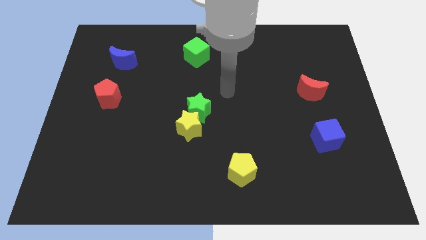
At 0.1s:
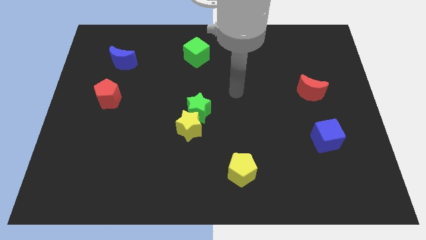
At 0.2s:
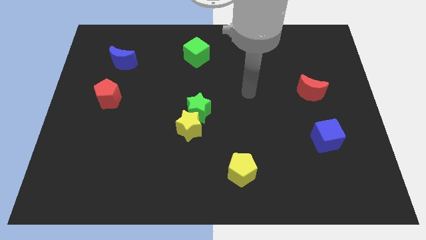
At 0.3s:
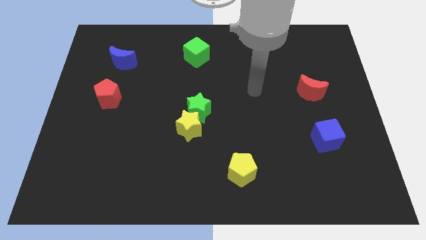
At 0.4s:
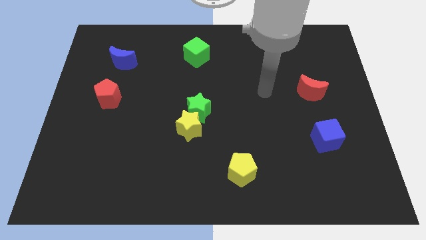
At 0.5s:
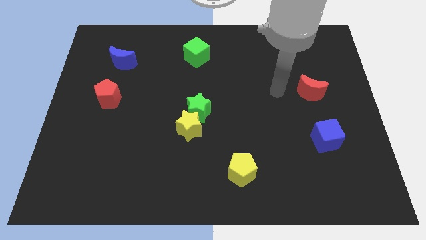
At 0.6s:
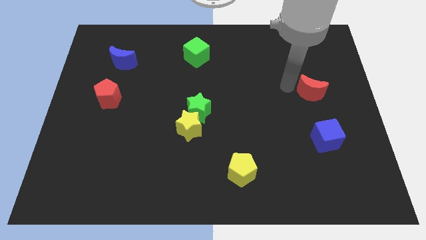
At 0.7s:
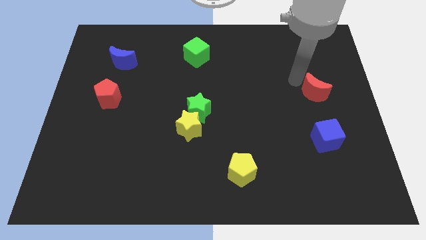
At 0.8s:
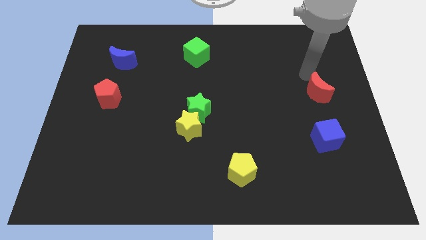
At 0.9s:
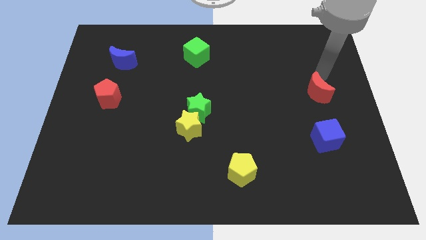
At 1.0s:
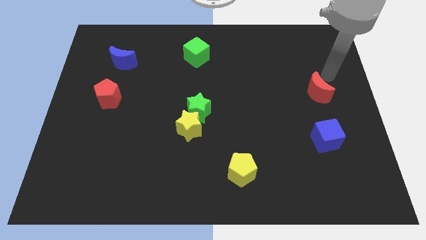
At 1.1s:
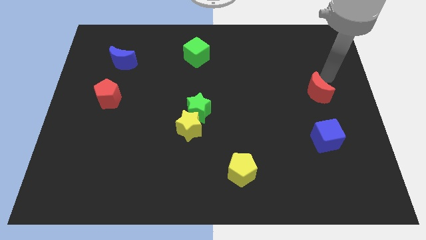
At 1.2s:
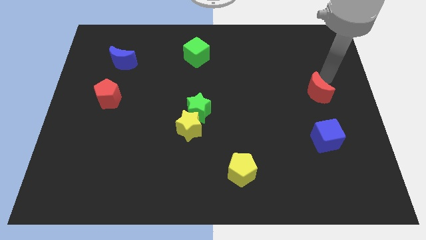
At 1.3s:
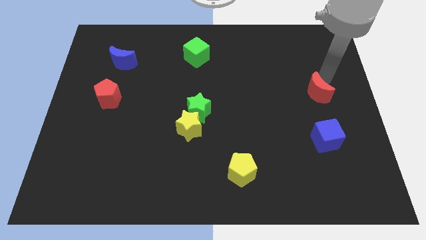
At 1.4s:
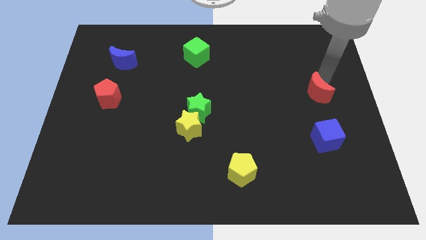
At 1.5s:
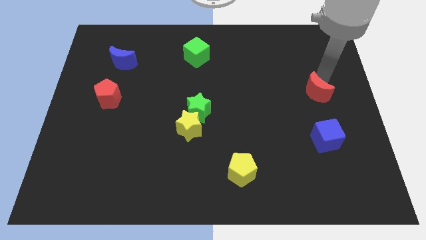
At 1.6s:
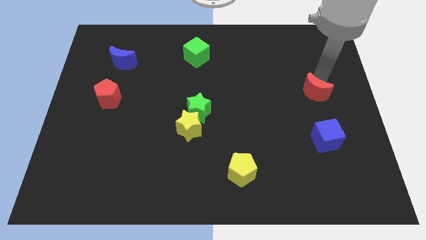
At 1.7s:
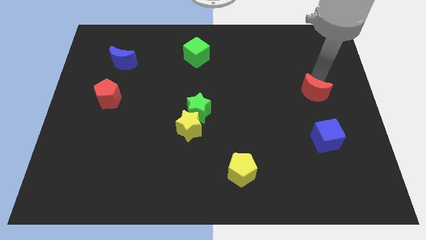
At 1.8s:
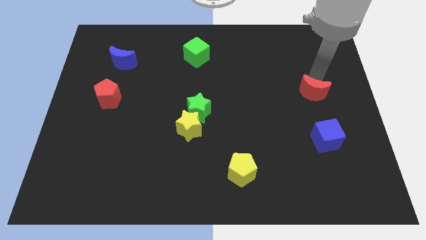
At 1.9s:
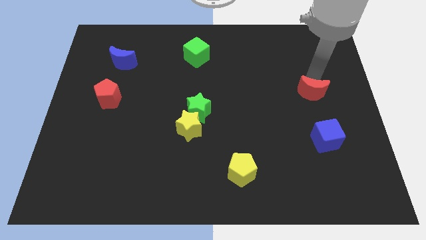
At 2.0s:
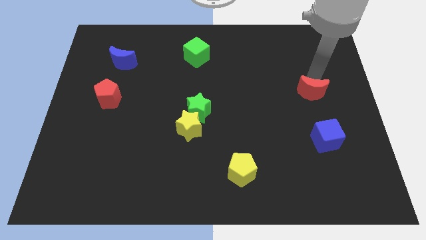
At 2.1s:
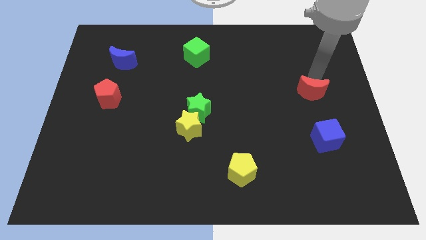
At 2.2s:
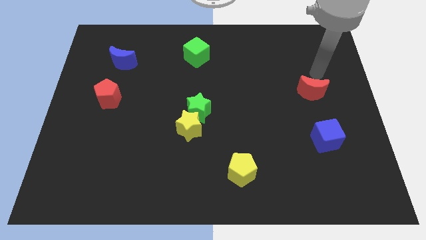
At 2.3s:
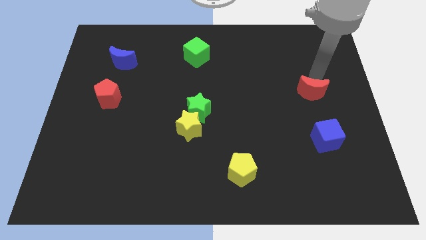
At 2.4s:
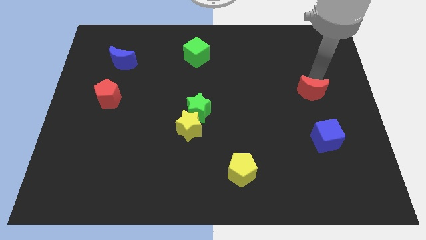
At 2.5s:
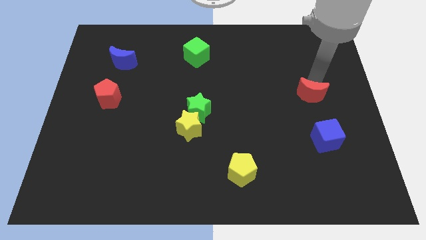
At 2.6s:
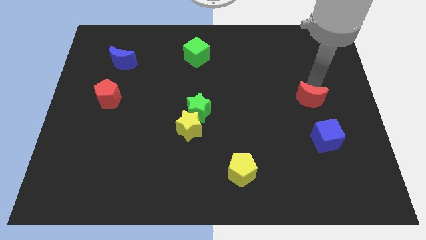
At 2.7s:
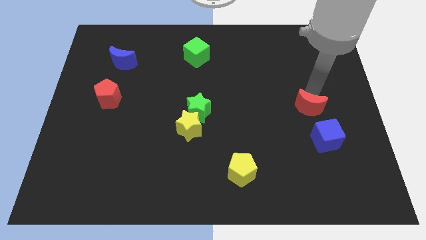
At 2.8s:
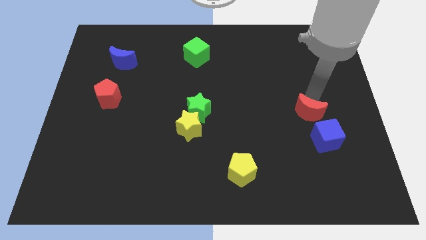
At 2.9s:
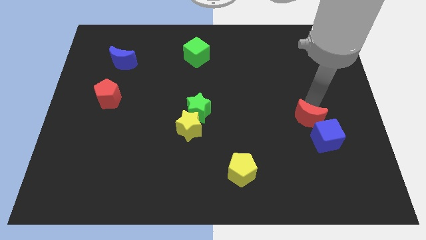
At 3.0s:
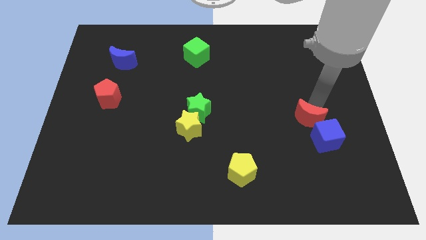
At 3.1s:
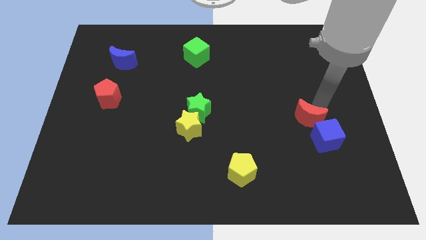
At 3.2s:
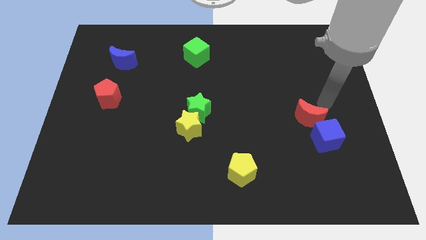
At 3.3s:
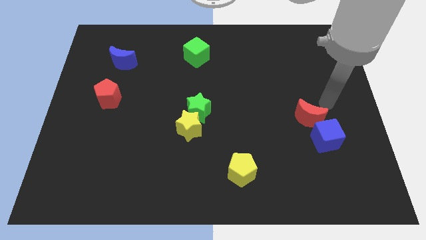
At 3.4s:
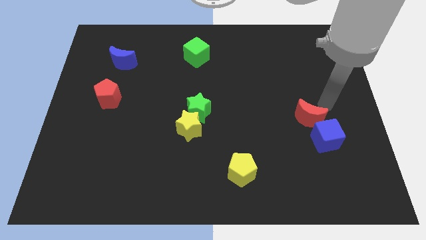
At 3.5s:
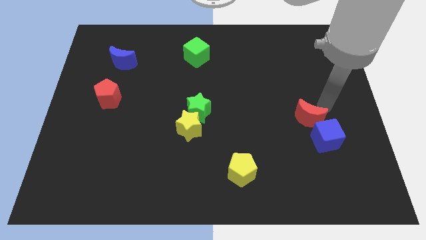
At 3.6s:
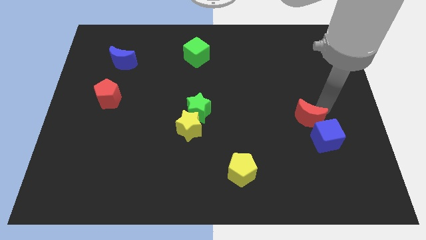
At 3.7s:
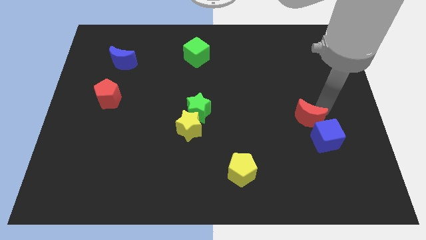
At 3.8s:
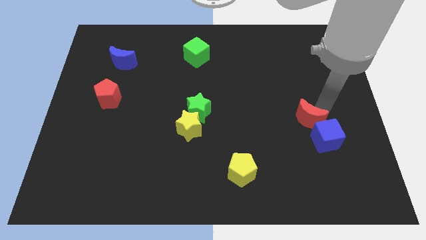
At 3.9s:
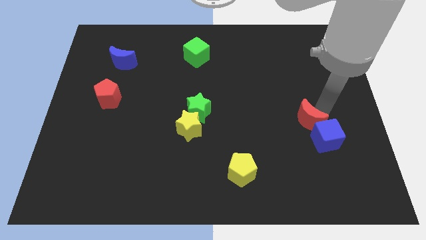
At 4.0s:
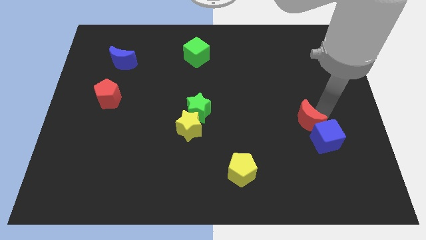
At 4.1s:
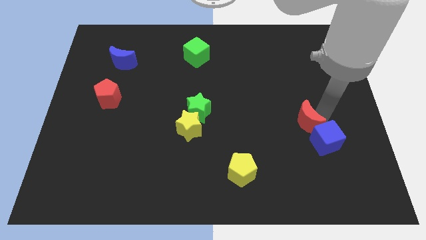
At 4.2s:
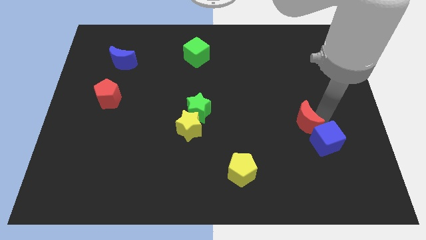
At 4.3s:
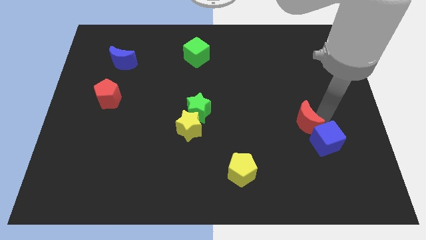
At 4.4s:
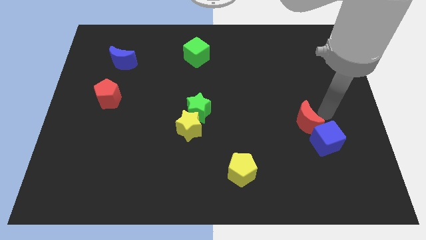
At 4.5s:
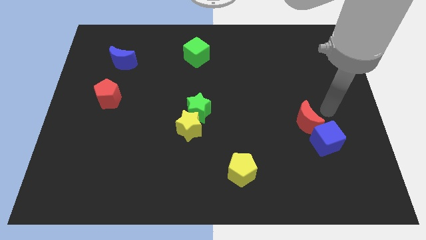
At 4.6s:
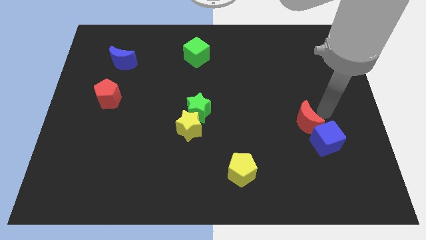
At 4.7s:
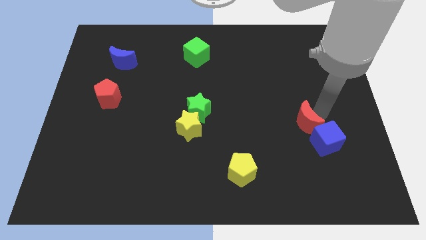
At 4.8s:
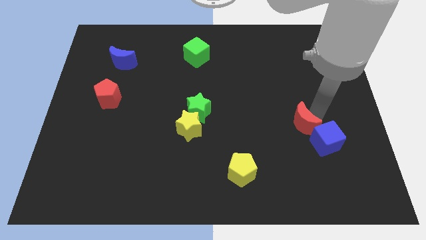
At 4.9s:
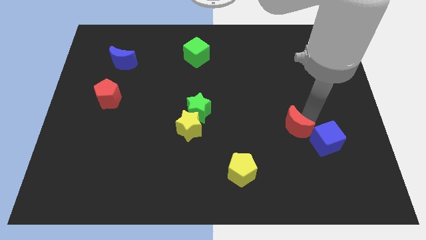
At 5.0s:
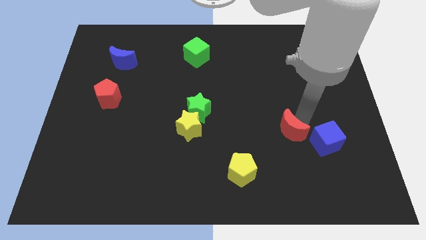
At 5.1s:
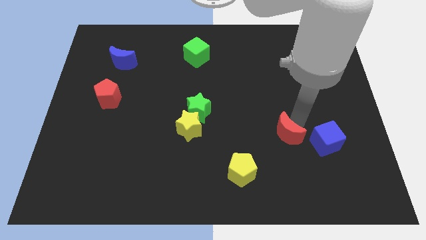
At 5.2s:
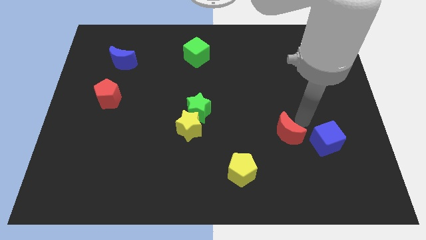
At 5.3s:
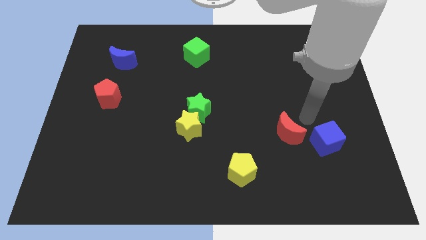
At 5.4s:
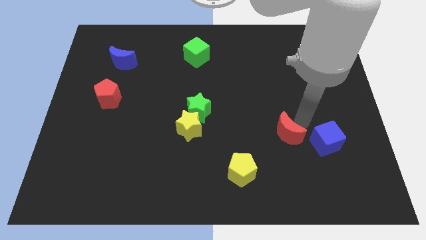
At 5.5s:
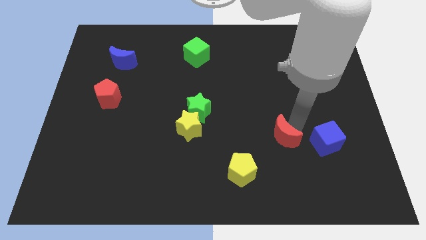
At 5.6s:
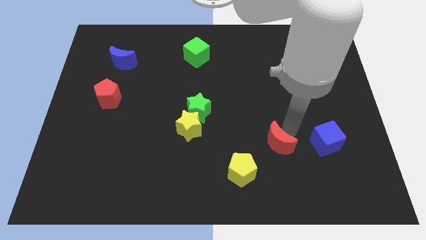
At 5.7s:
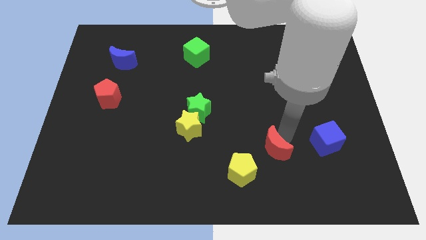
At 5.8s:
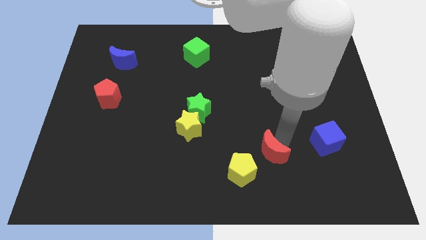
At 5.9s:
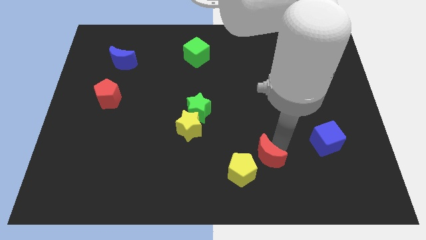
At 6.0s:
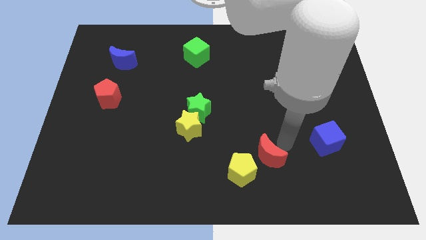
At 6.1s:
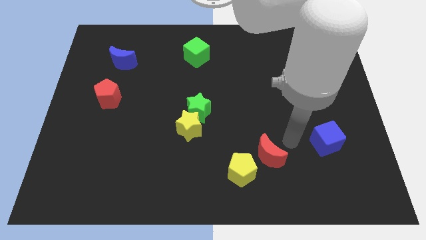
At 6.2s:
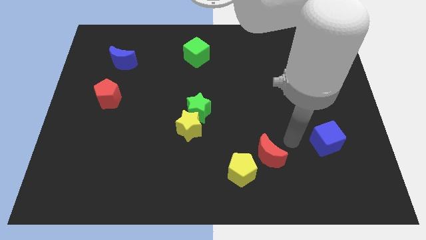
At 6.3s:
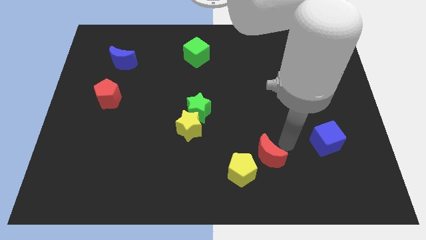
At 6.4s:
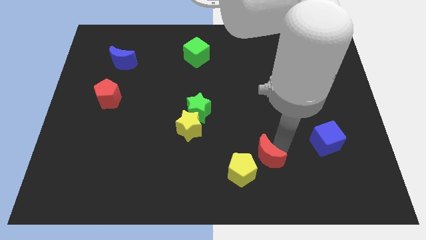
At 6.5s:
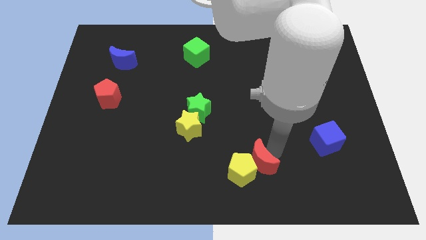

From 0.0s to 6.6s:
put the red moon to the yellow pentagon

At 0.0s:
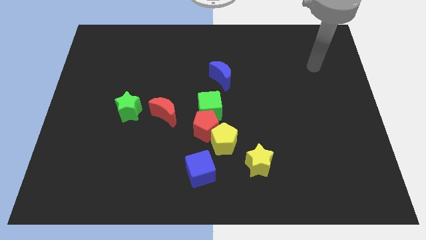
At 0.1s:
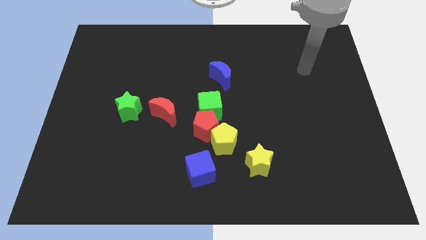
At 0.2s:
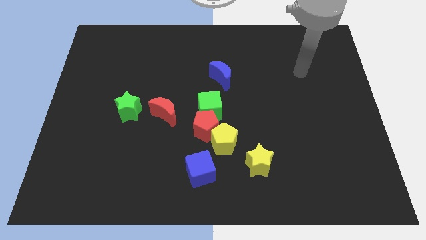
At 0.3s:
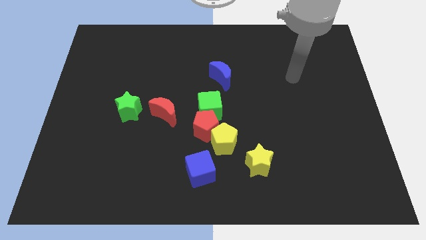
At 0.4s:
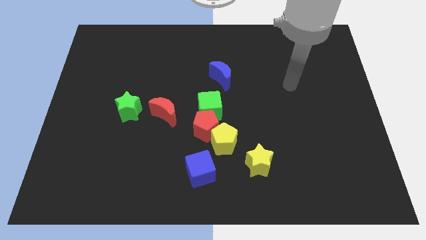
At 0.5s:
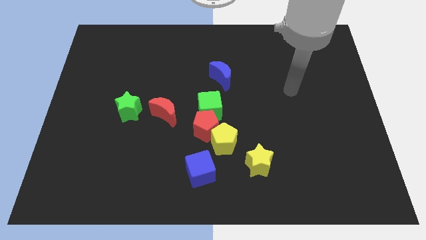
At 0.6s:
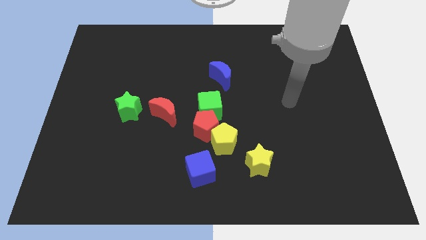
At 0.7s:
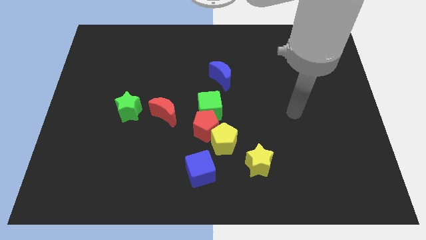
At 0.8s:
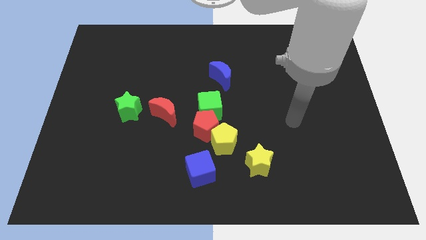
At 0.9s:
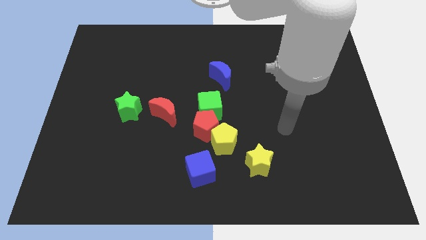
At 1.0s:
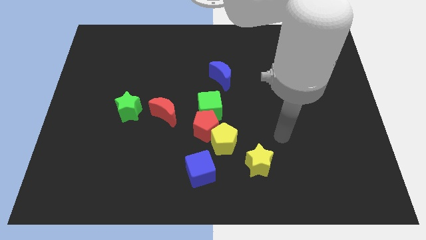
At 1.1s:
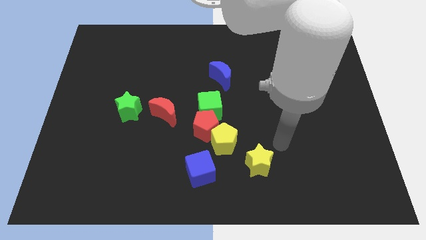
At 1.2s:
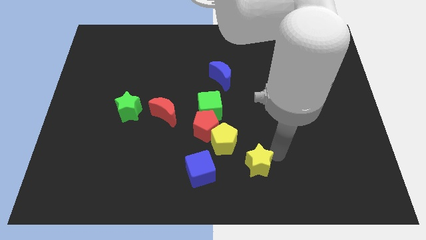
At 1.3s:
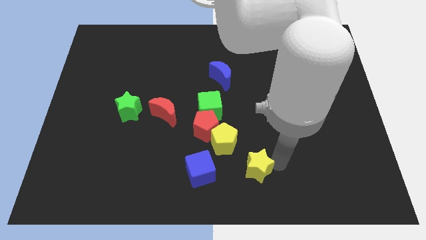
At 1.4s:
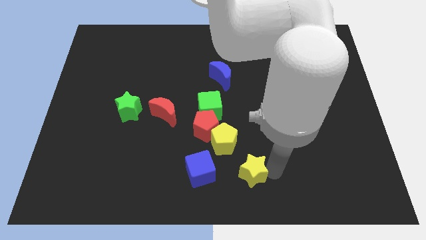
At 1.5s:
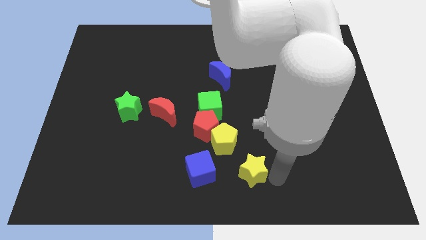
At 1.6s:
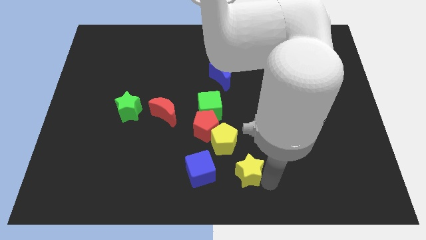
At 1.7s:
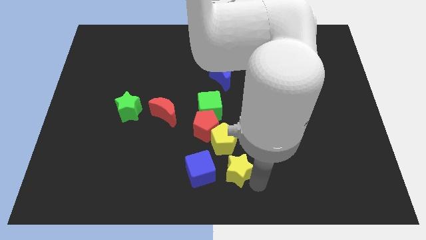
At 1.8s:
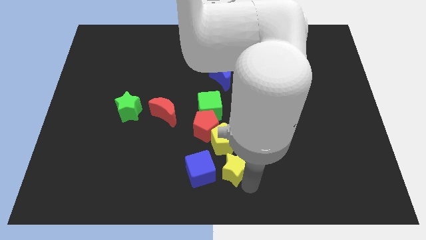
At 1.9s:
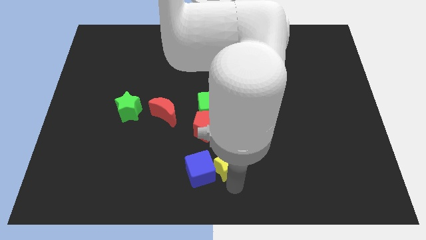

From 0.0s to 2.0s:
put the blue cube to the yellow star
